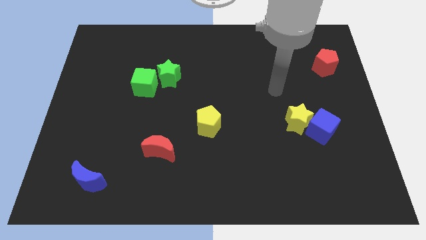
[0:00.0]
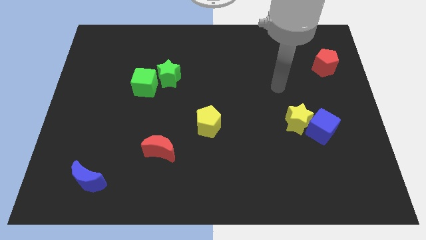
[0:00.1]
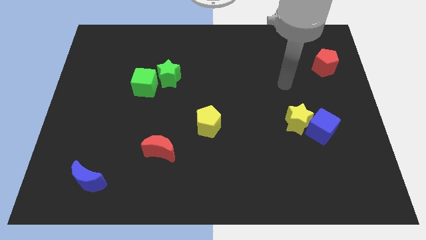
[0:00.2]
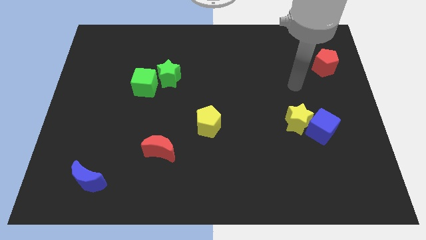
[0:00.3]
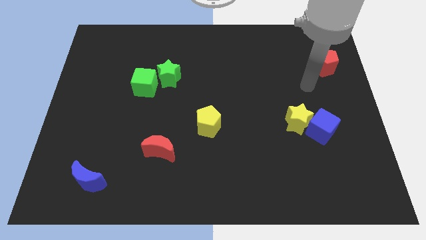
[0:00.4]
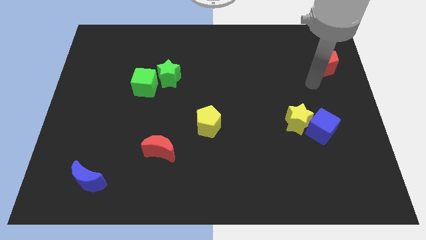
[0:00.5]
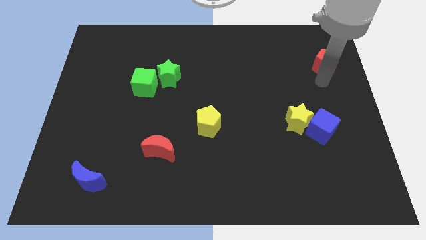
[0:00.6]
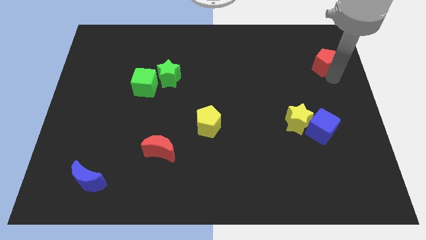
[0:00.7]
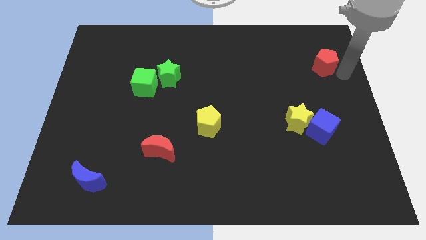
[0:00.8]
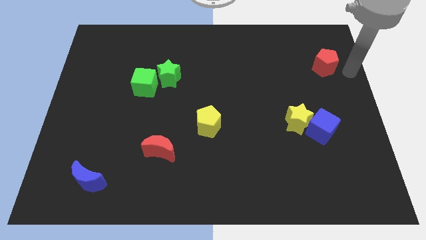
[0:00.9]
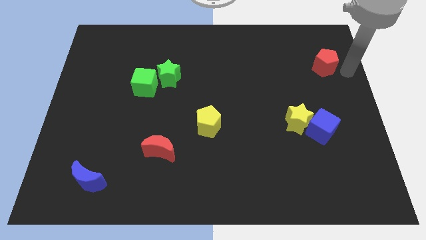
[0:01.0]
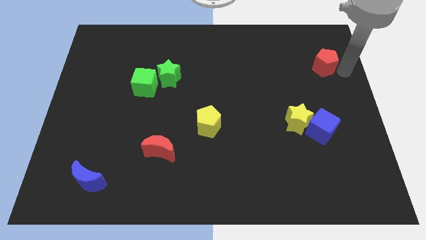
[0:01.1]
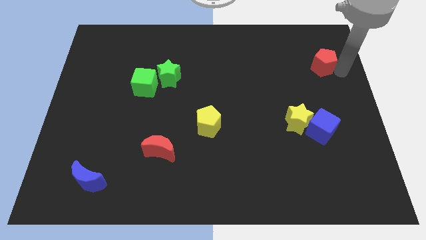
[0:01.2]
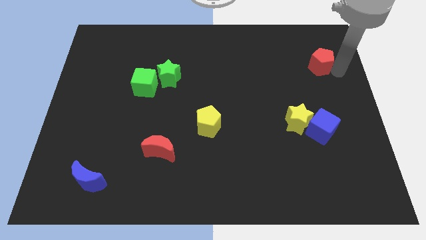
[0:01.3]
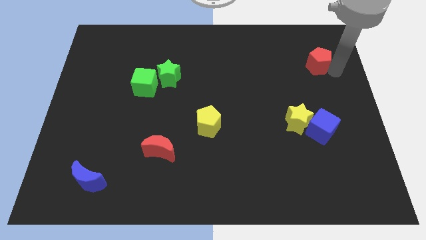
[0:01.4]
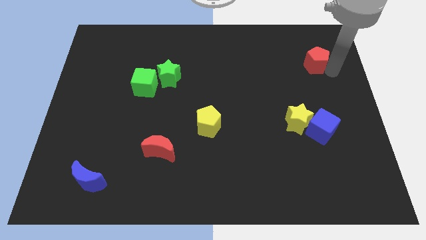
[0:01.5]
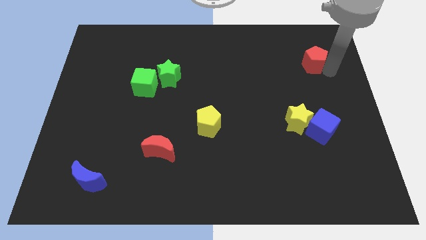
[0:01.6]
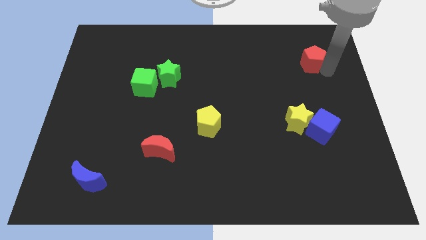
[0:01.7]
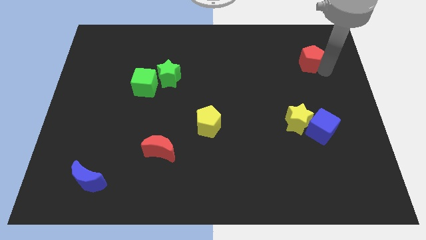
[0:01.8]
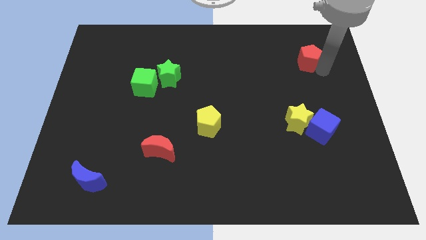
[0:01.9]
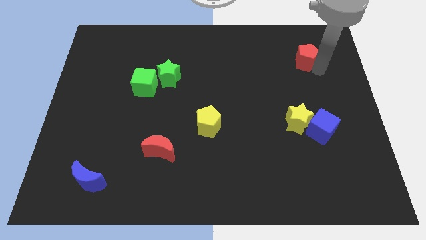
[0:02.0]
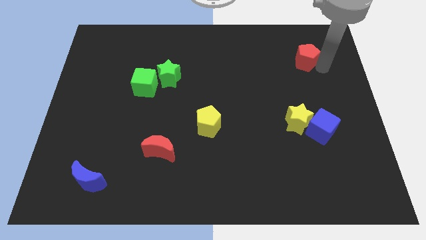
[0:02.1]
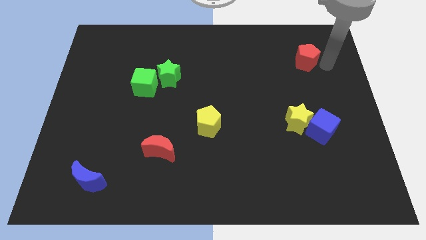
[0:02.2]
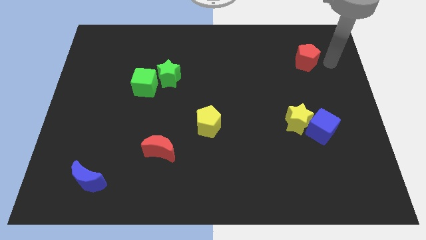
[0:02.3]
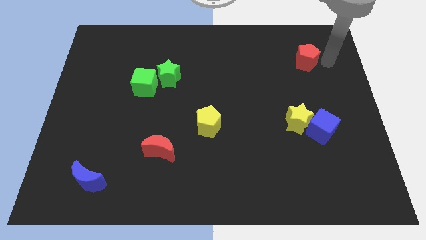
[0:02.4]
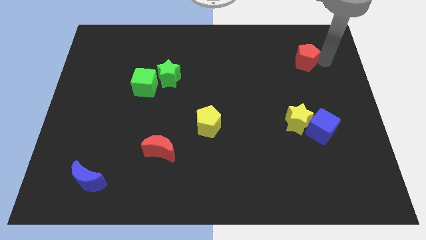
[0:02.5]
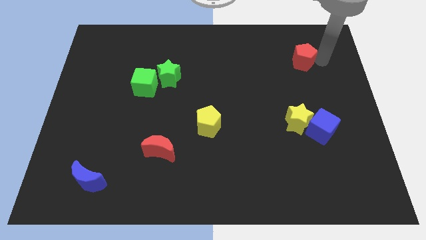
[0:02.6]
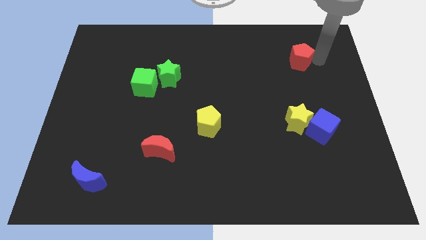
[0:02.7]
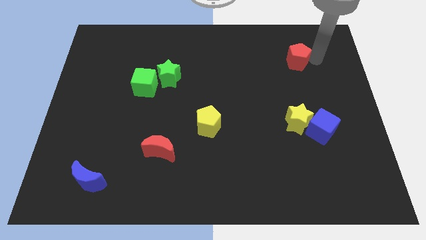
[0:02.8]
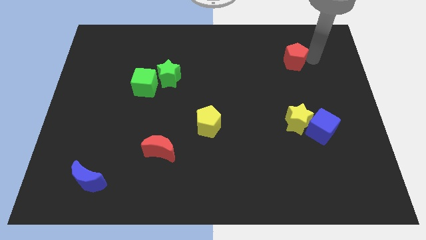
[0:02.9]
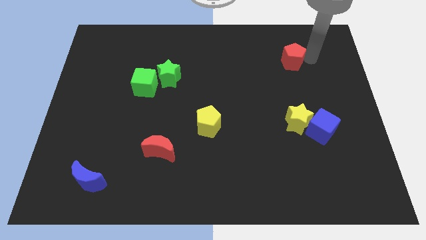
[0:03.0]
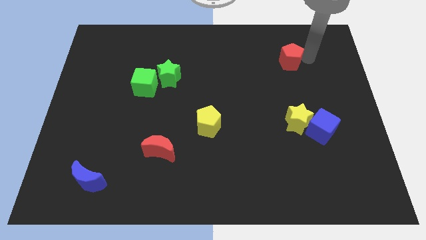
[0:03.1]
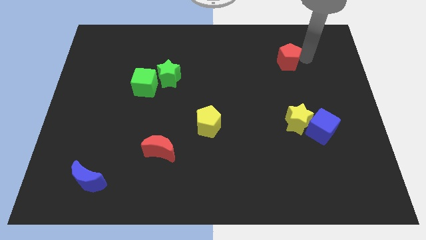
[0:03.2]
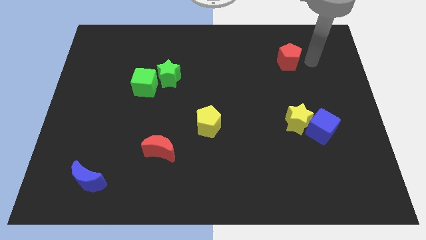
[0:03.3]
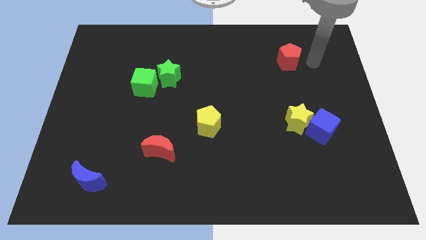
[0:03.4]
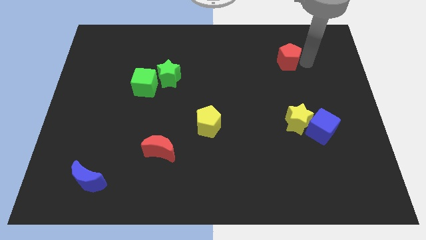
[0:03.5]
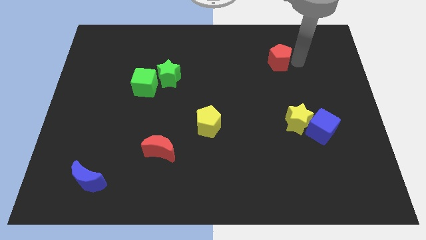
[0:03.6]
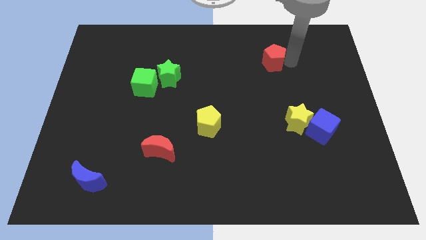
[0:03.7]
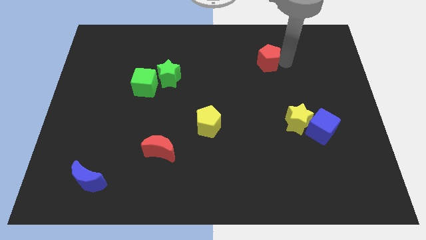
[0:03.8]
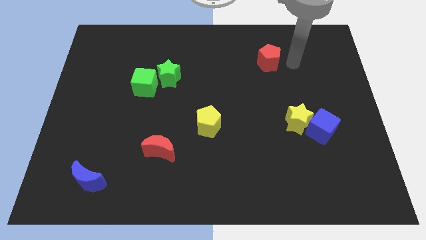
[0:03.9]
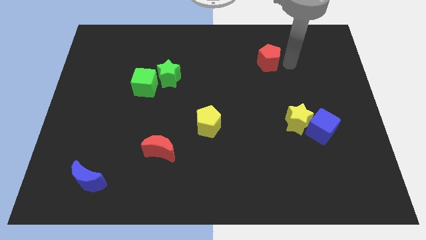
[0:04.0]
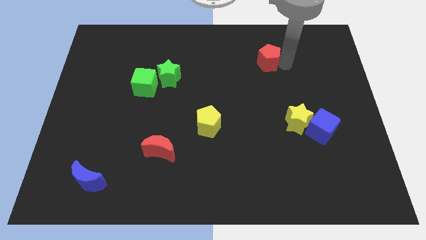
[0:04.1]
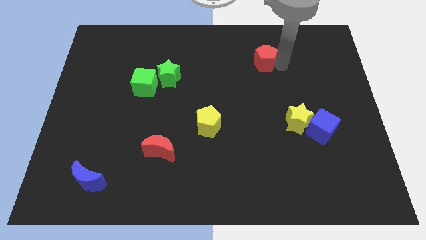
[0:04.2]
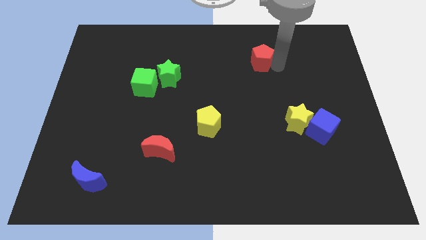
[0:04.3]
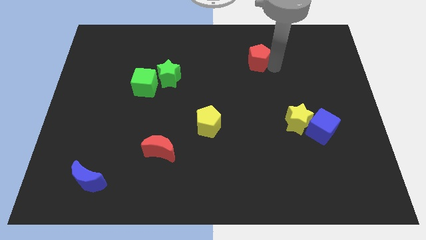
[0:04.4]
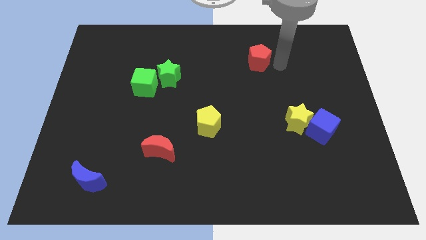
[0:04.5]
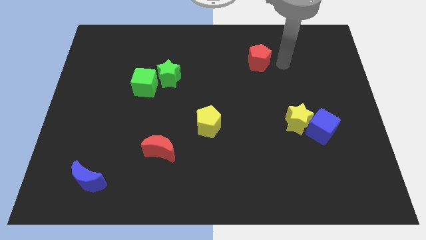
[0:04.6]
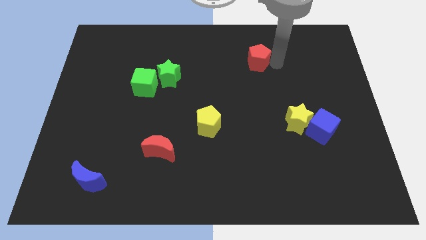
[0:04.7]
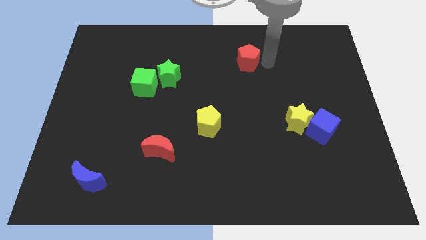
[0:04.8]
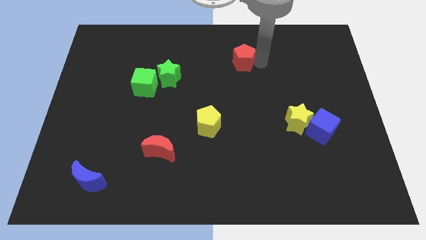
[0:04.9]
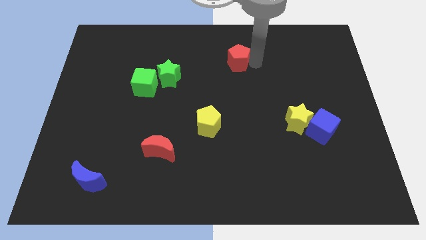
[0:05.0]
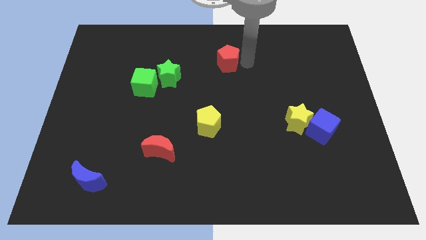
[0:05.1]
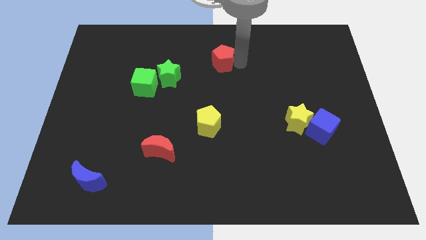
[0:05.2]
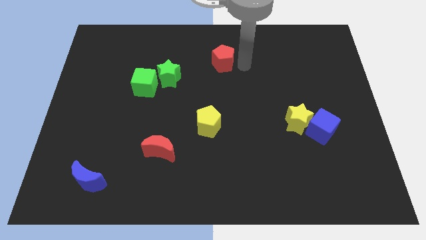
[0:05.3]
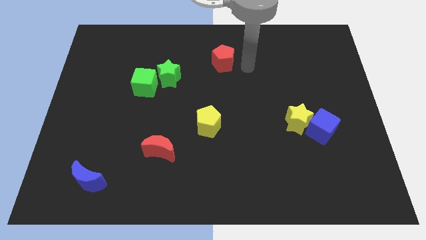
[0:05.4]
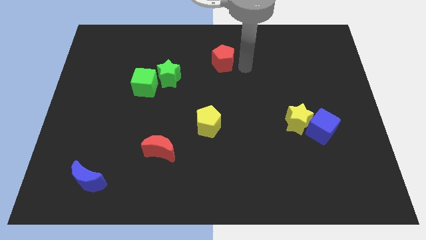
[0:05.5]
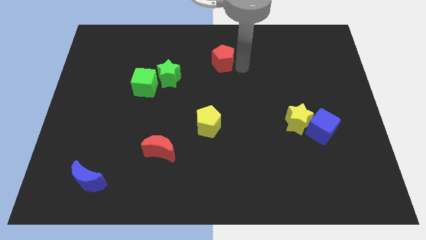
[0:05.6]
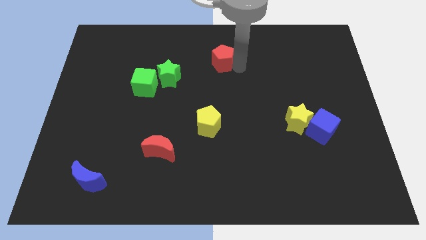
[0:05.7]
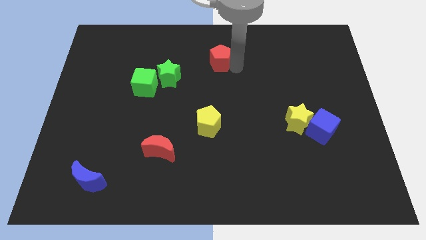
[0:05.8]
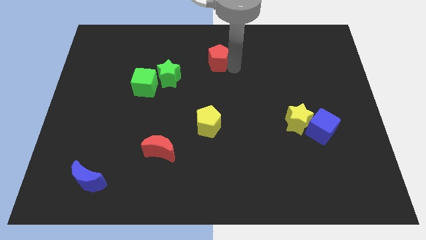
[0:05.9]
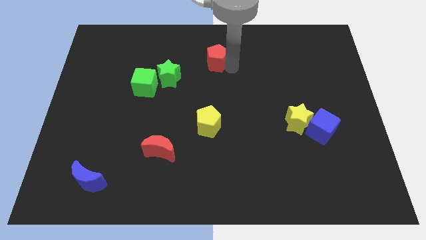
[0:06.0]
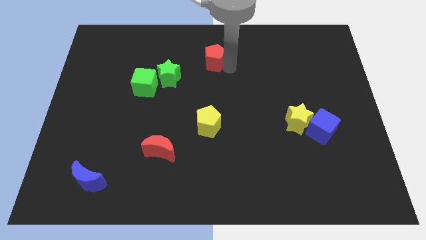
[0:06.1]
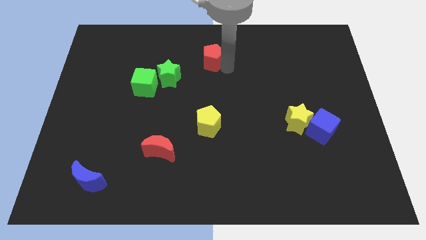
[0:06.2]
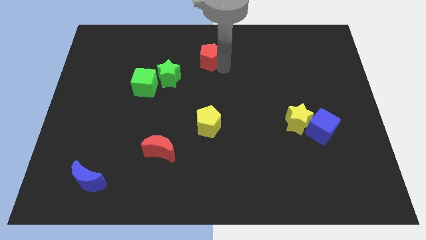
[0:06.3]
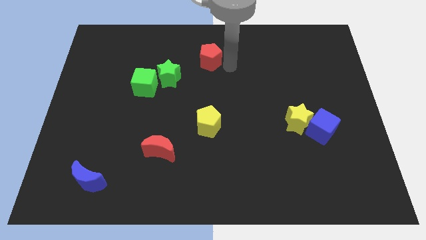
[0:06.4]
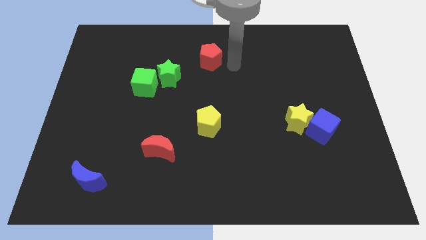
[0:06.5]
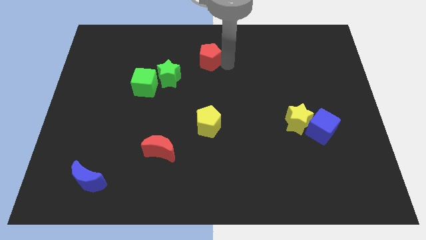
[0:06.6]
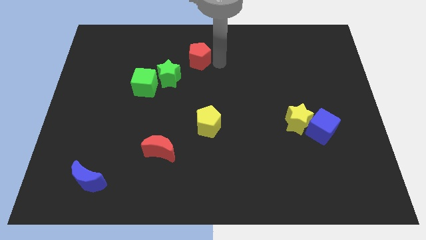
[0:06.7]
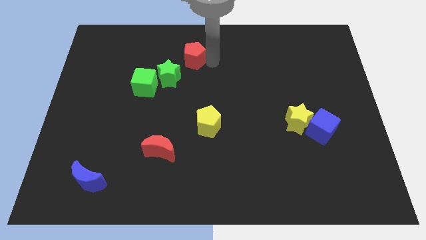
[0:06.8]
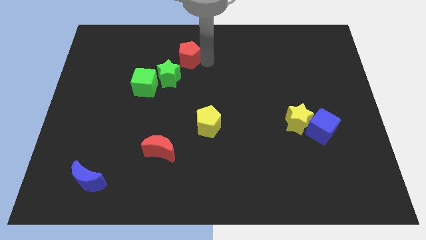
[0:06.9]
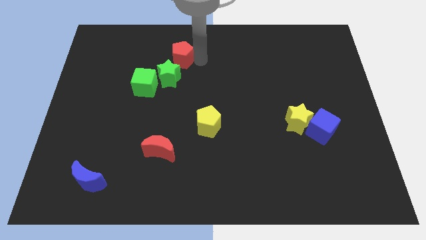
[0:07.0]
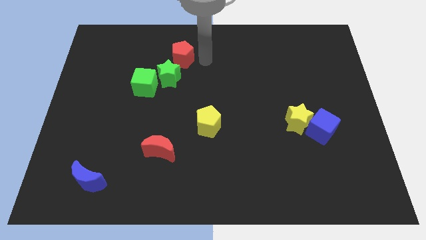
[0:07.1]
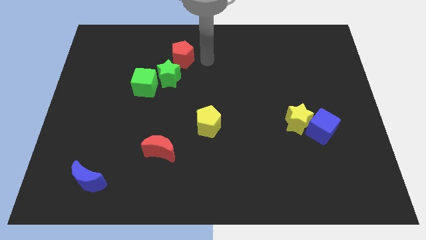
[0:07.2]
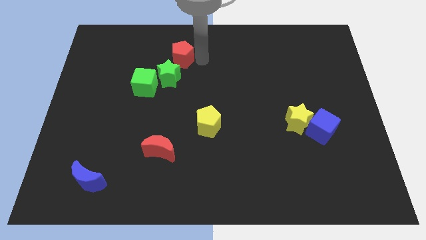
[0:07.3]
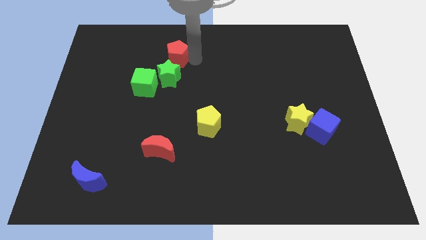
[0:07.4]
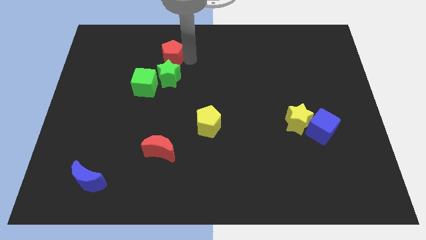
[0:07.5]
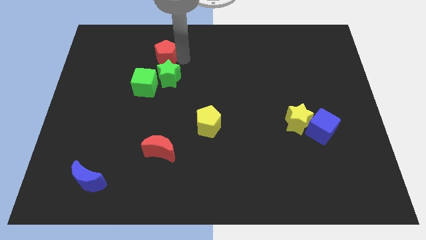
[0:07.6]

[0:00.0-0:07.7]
put the red pentagon to the top of the green cube
